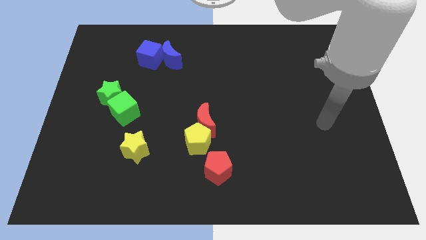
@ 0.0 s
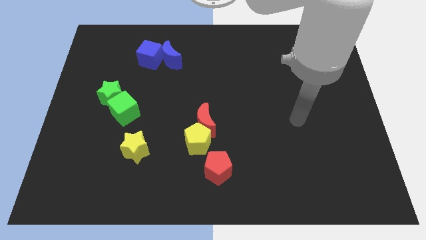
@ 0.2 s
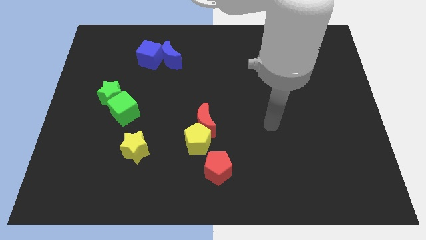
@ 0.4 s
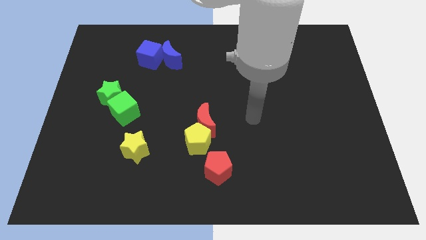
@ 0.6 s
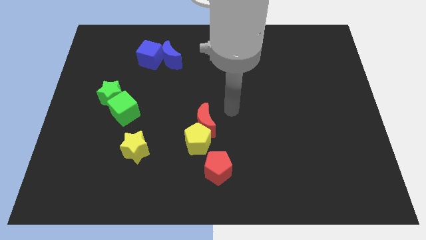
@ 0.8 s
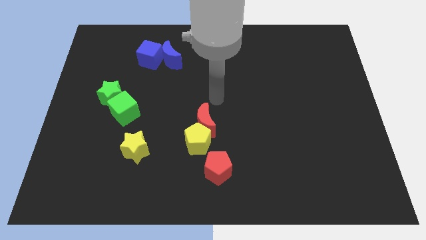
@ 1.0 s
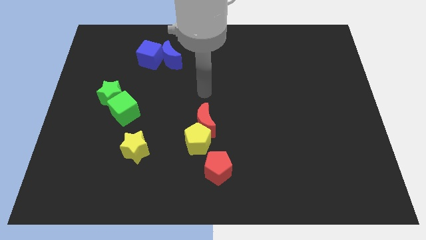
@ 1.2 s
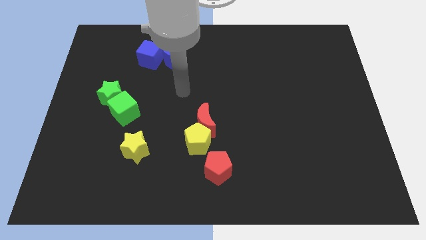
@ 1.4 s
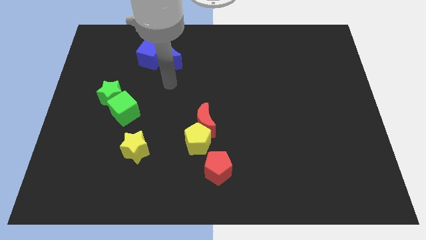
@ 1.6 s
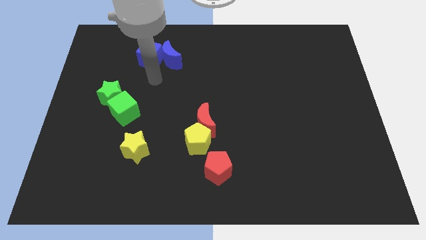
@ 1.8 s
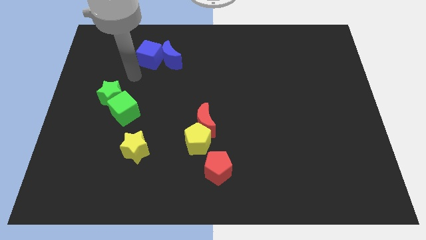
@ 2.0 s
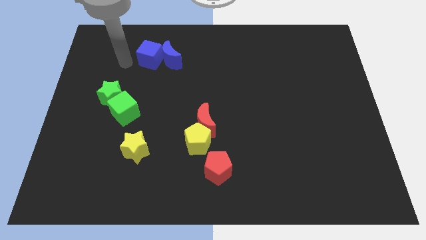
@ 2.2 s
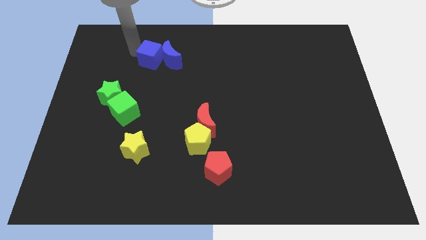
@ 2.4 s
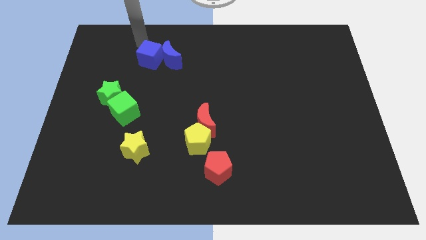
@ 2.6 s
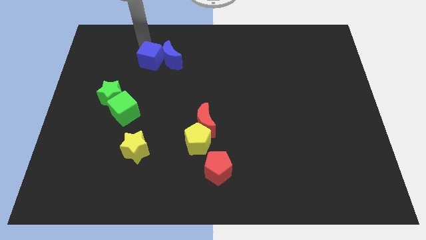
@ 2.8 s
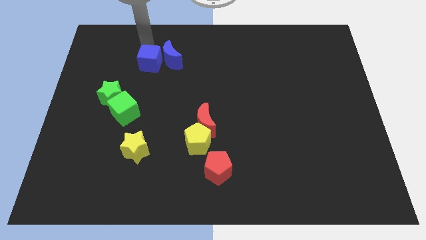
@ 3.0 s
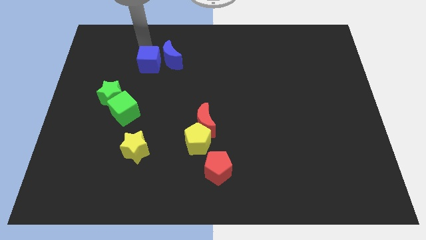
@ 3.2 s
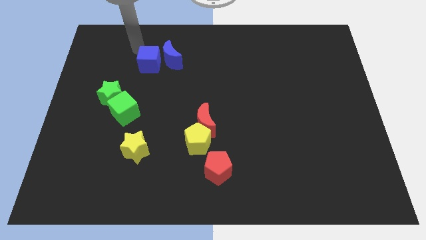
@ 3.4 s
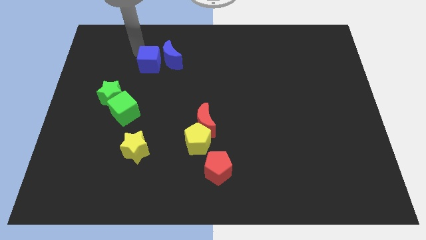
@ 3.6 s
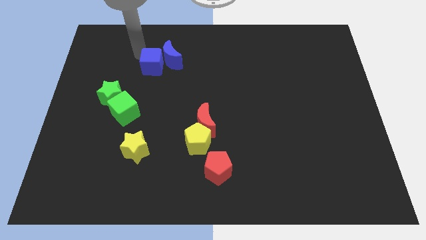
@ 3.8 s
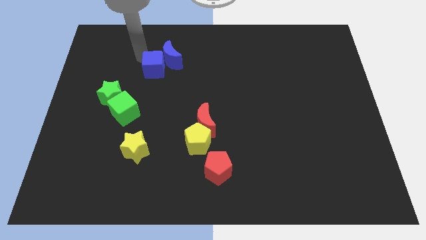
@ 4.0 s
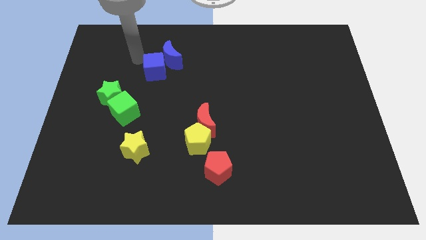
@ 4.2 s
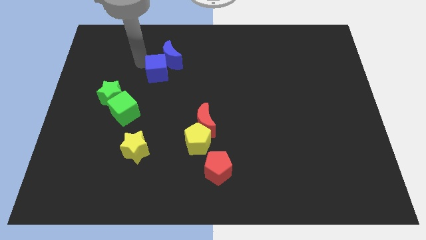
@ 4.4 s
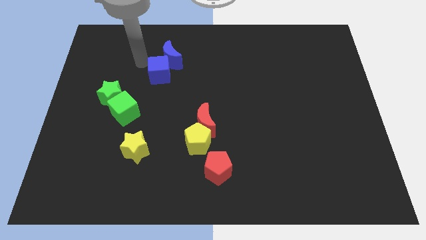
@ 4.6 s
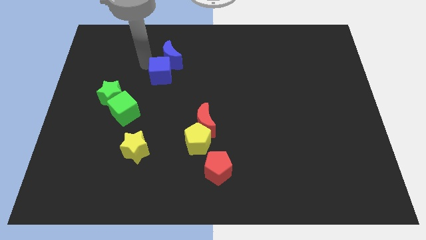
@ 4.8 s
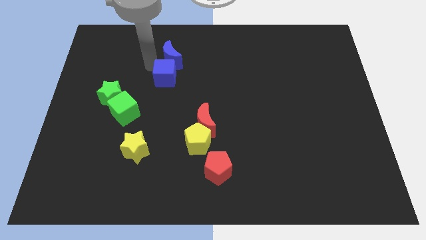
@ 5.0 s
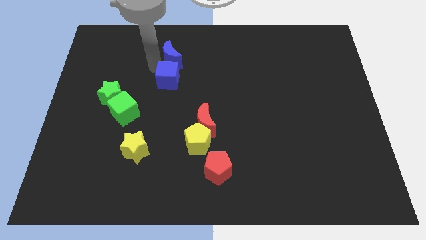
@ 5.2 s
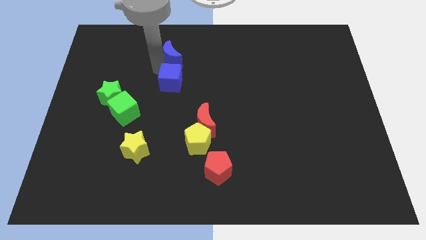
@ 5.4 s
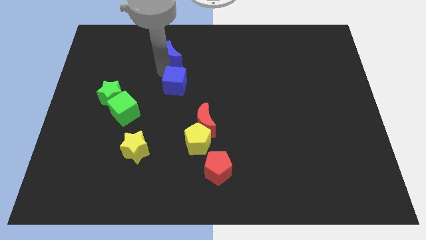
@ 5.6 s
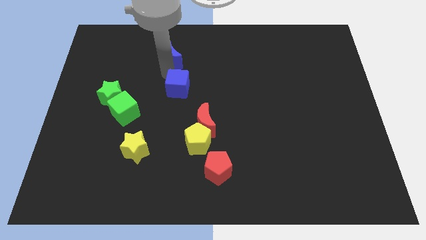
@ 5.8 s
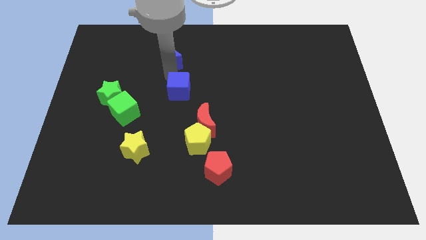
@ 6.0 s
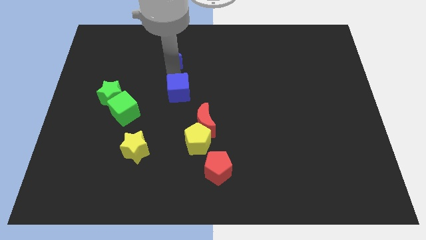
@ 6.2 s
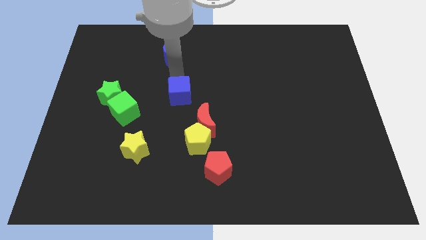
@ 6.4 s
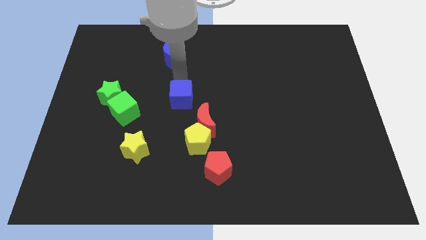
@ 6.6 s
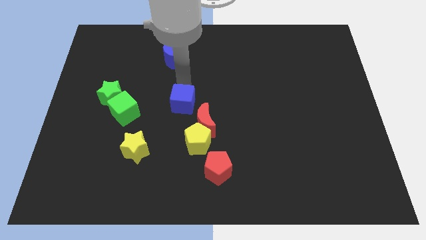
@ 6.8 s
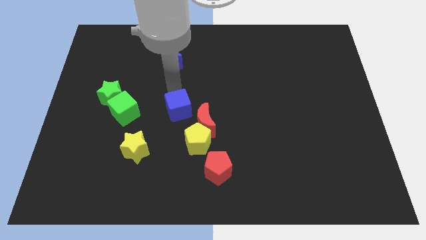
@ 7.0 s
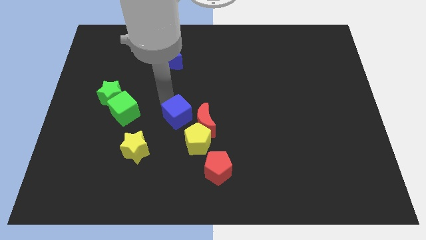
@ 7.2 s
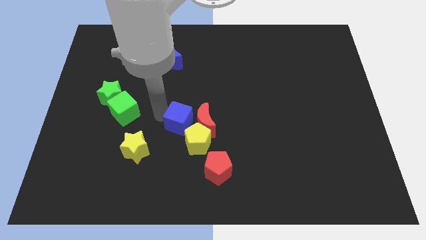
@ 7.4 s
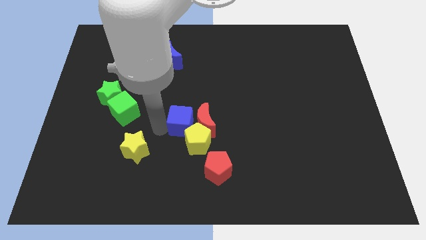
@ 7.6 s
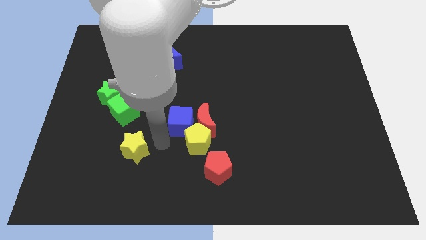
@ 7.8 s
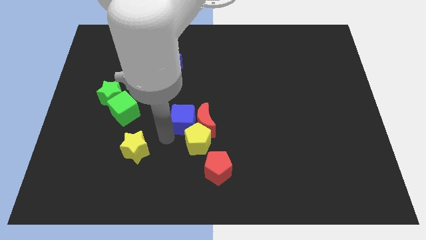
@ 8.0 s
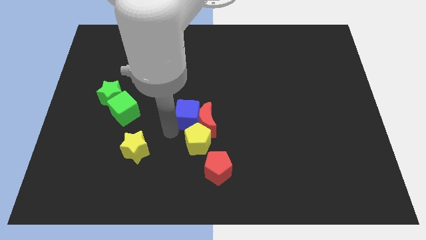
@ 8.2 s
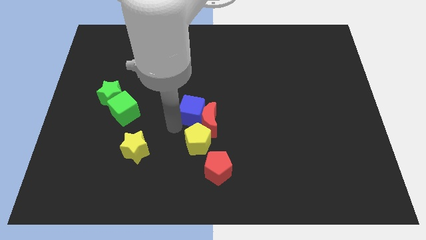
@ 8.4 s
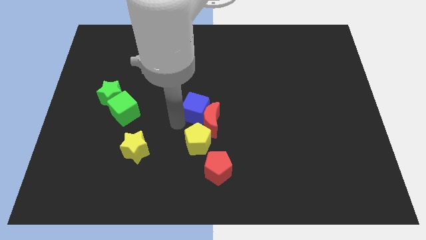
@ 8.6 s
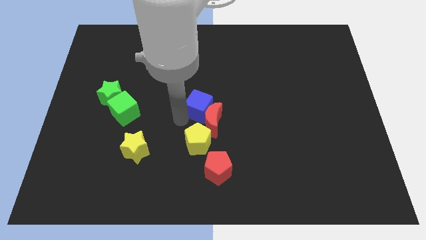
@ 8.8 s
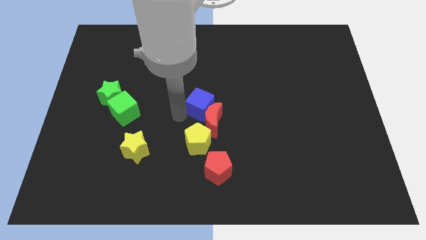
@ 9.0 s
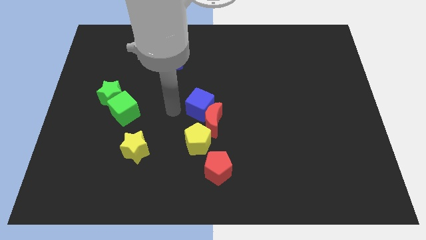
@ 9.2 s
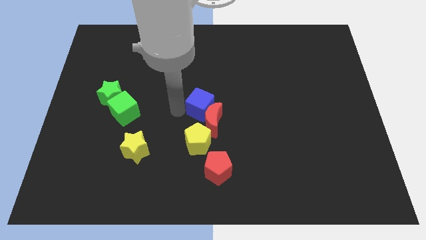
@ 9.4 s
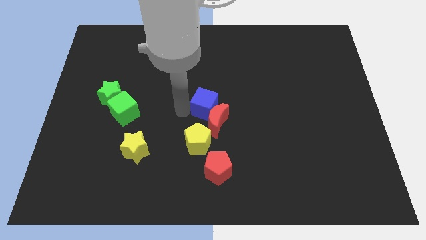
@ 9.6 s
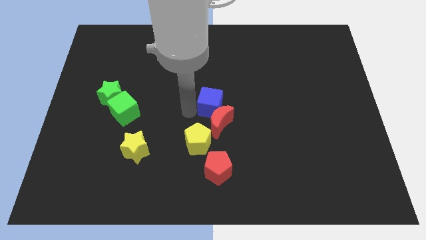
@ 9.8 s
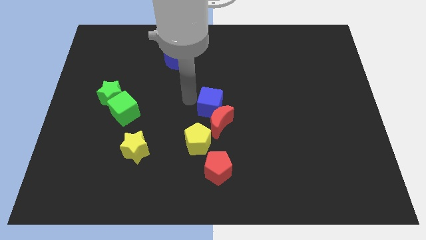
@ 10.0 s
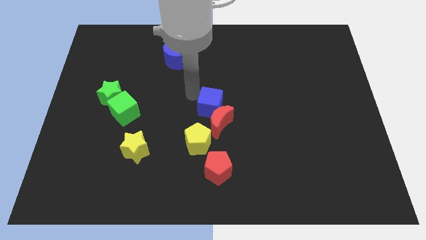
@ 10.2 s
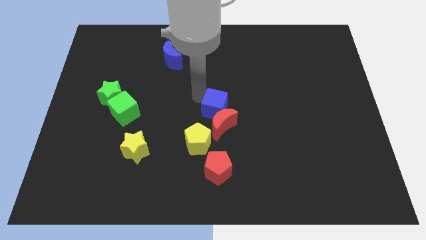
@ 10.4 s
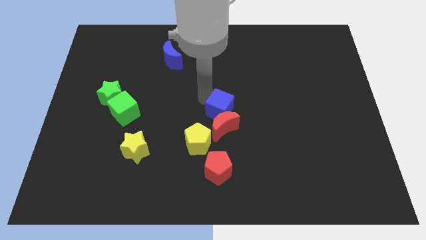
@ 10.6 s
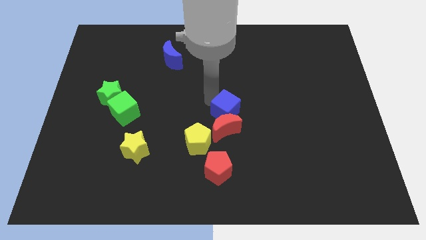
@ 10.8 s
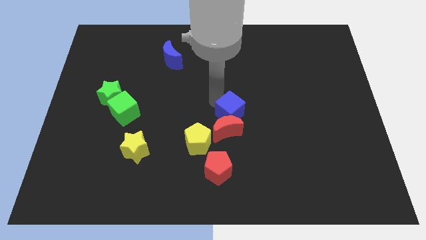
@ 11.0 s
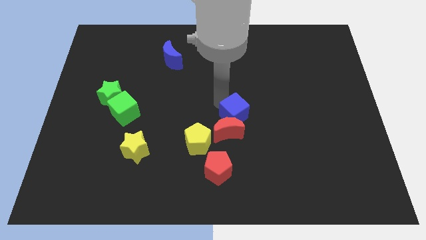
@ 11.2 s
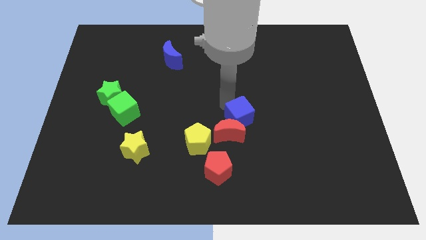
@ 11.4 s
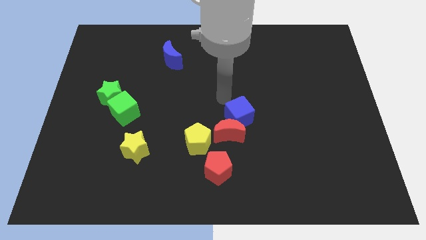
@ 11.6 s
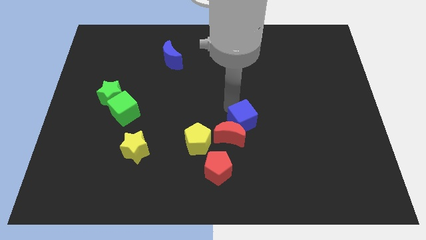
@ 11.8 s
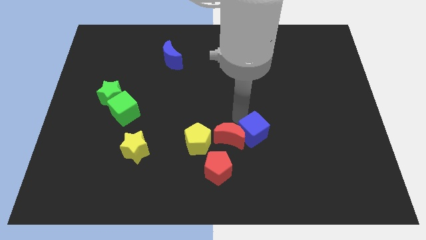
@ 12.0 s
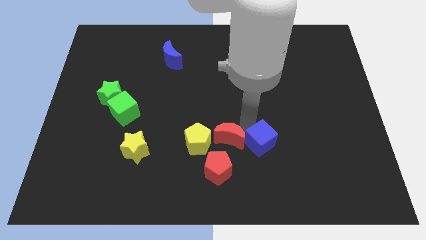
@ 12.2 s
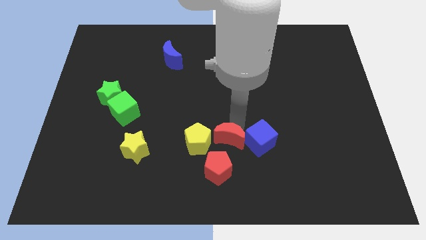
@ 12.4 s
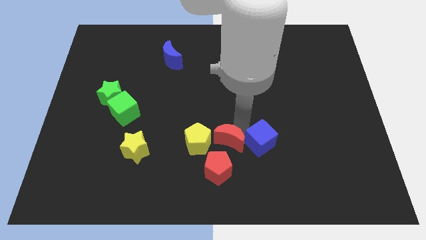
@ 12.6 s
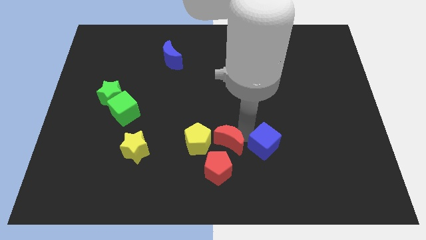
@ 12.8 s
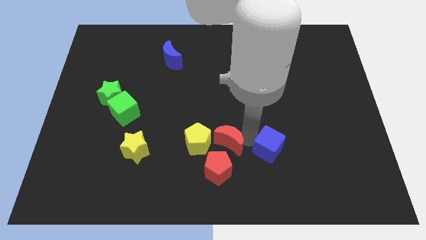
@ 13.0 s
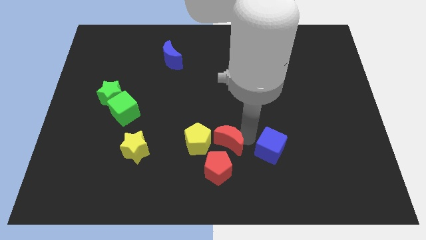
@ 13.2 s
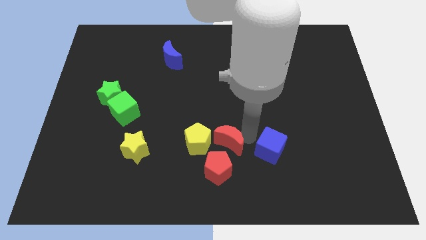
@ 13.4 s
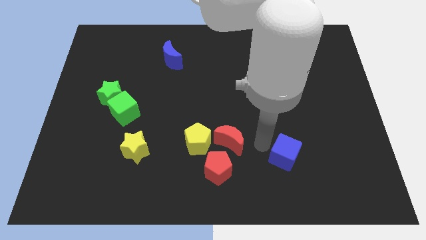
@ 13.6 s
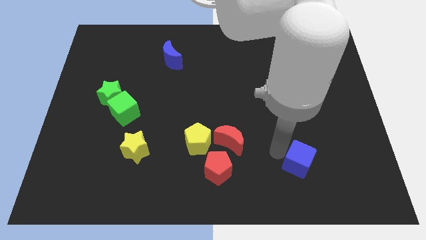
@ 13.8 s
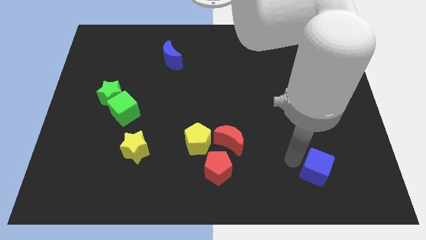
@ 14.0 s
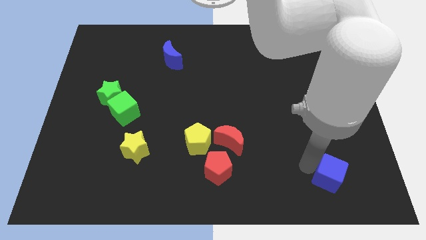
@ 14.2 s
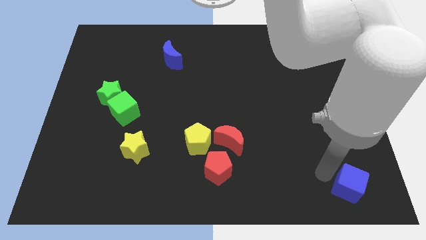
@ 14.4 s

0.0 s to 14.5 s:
move the blue cube to the bottom right corner
